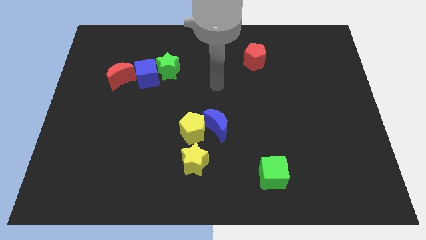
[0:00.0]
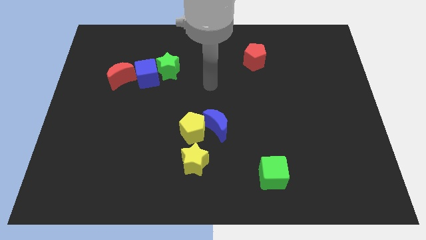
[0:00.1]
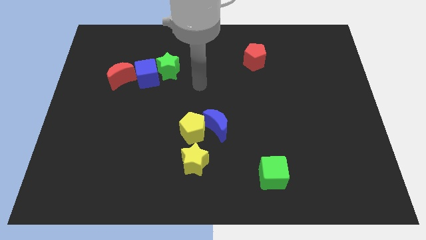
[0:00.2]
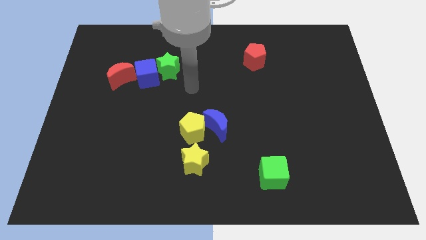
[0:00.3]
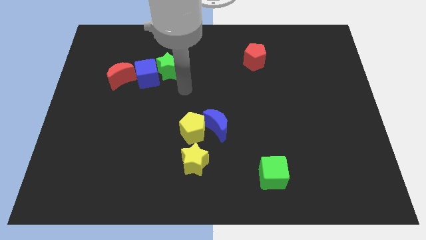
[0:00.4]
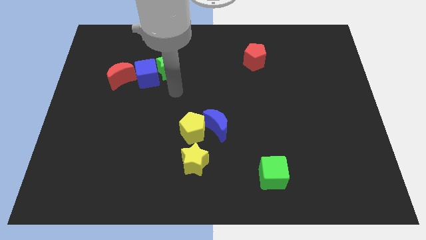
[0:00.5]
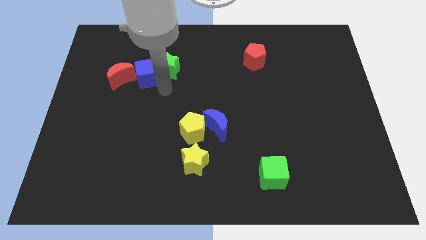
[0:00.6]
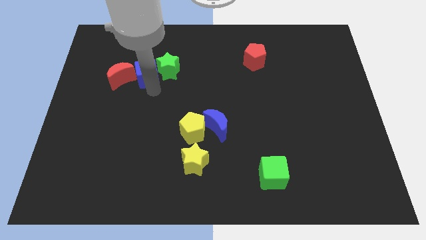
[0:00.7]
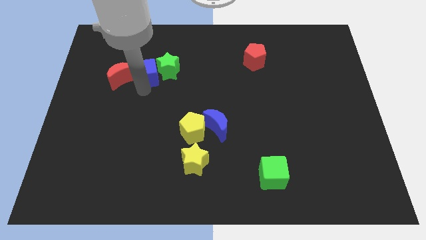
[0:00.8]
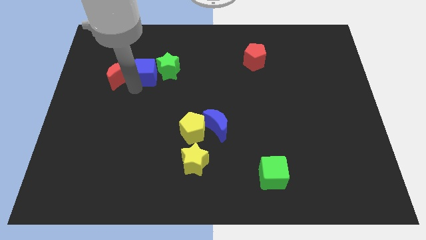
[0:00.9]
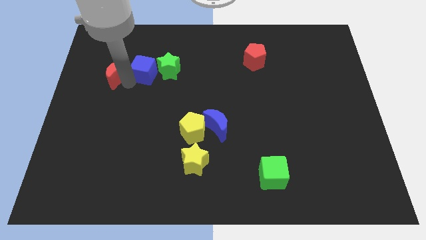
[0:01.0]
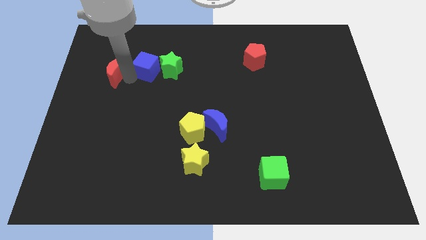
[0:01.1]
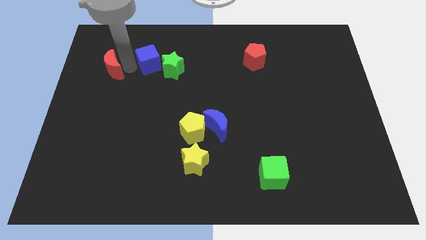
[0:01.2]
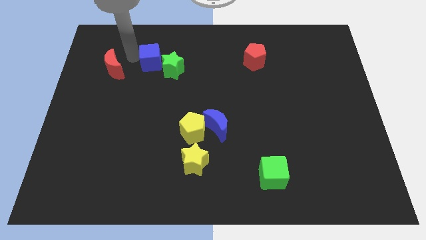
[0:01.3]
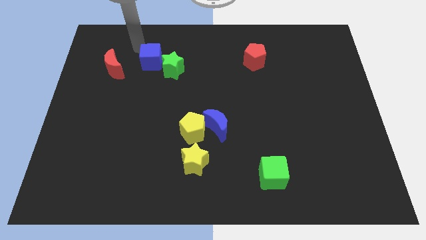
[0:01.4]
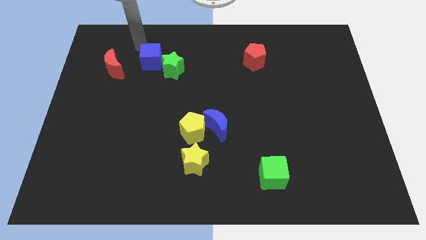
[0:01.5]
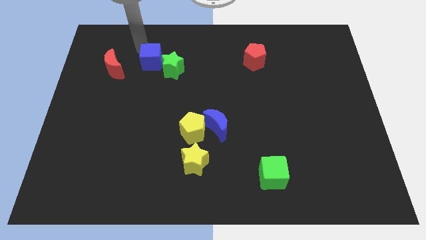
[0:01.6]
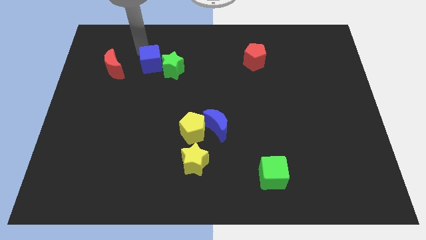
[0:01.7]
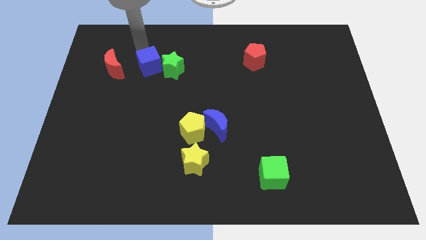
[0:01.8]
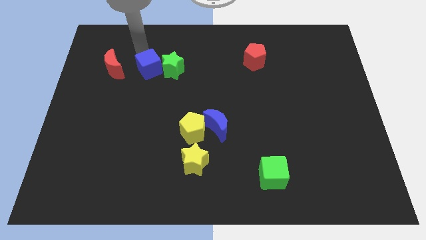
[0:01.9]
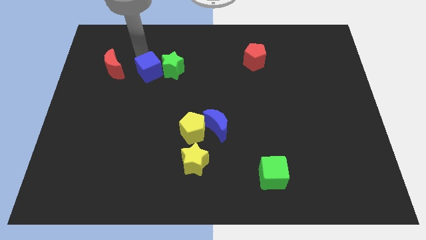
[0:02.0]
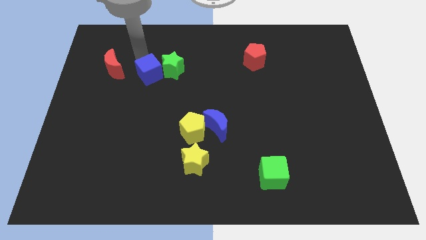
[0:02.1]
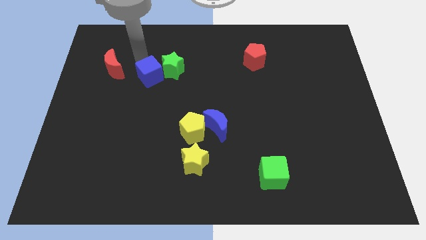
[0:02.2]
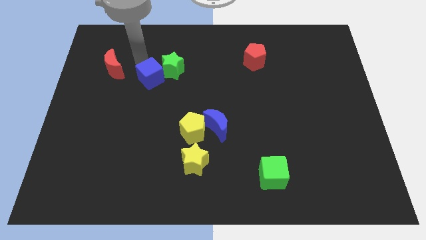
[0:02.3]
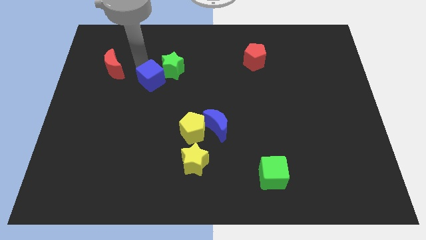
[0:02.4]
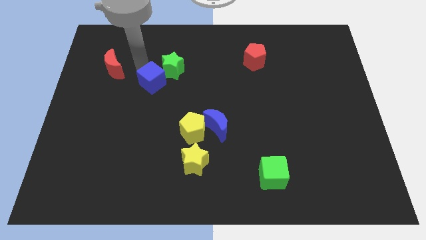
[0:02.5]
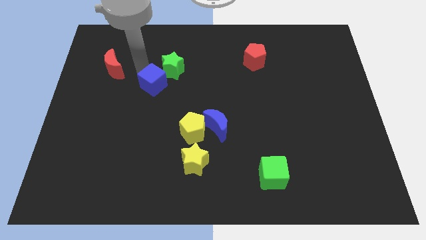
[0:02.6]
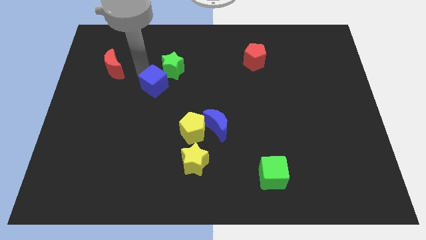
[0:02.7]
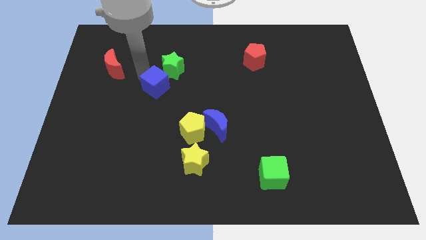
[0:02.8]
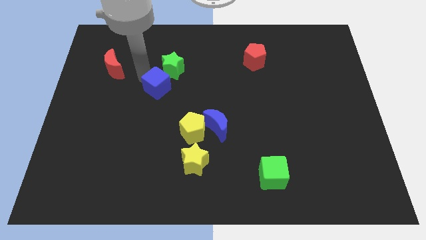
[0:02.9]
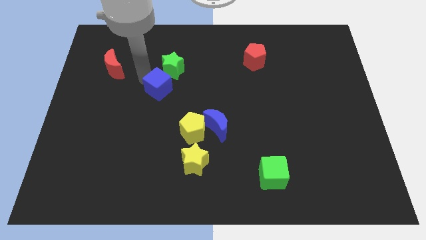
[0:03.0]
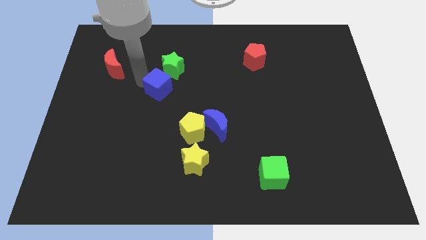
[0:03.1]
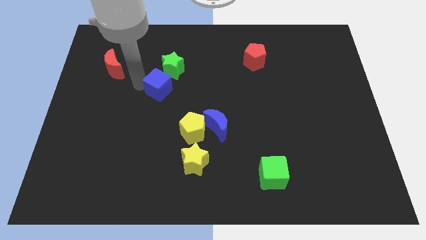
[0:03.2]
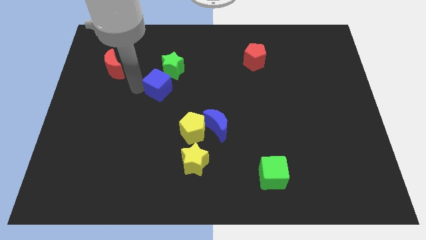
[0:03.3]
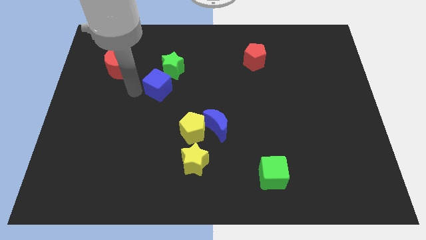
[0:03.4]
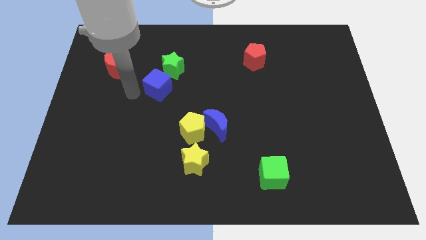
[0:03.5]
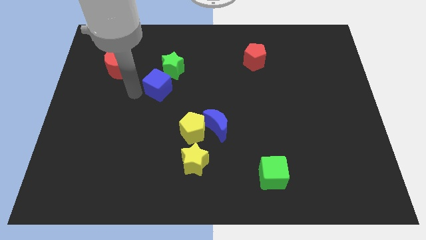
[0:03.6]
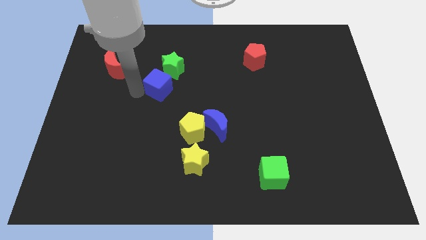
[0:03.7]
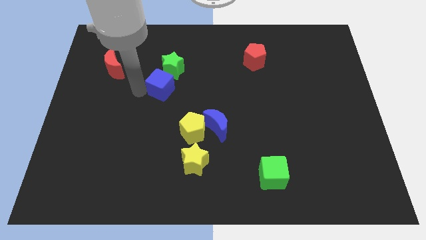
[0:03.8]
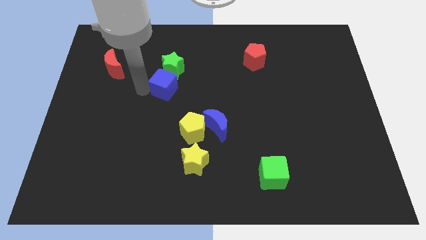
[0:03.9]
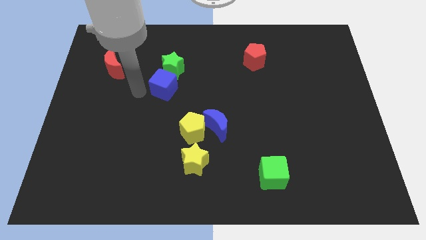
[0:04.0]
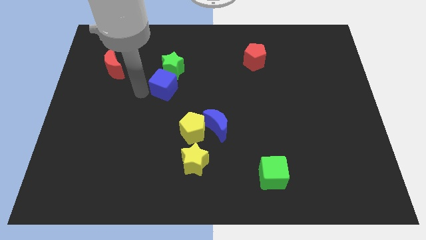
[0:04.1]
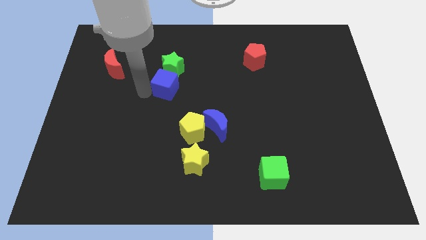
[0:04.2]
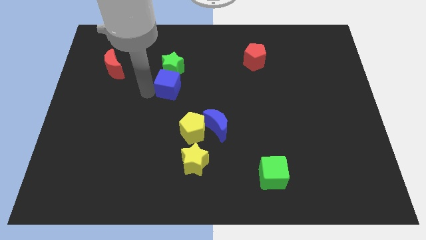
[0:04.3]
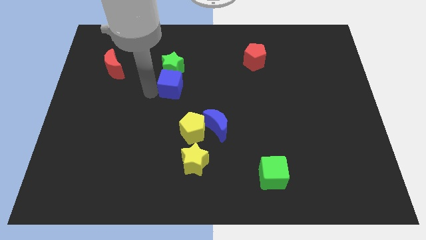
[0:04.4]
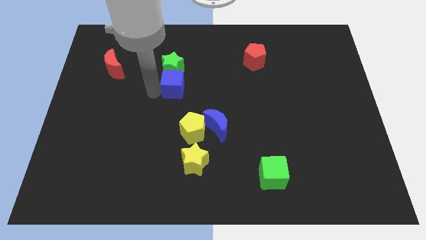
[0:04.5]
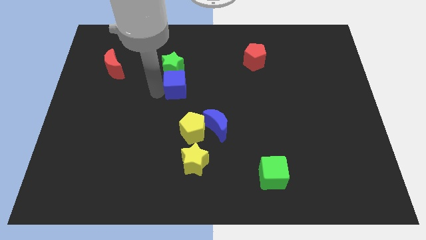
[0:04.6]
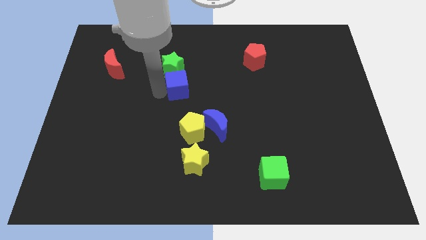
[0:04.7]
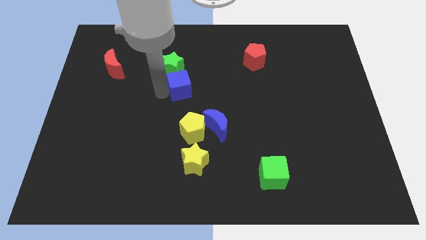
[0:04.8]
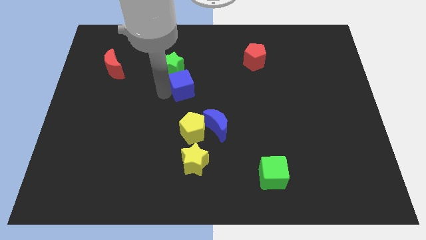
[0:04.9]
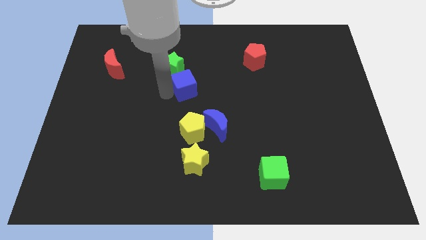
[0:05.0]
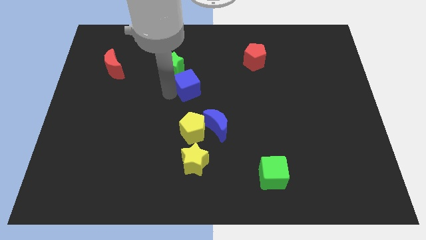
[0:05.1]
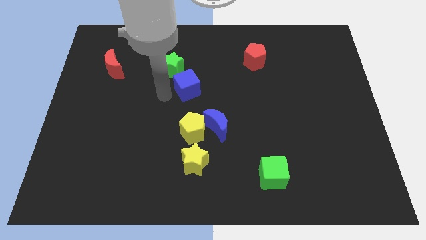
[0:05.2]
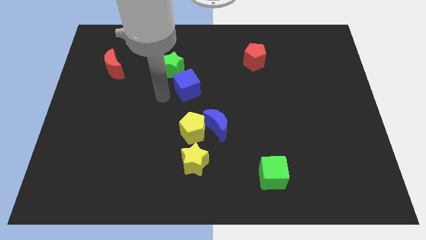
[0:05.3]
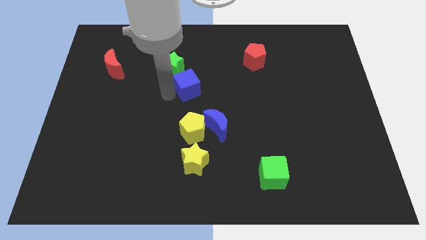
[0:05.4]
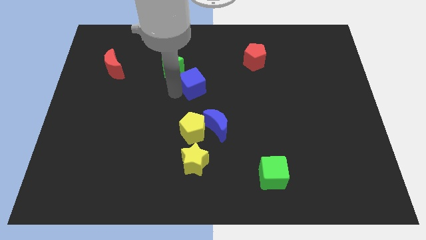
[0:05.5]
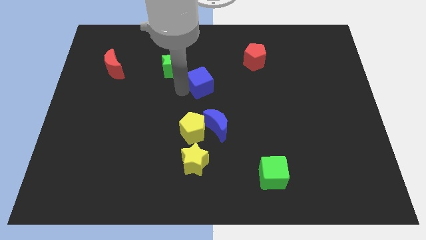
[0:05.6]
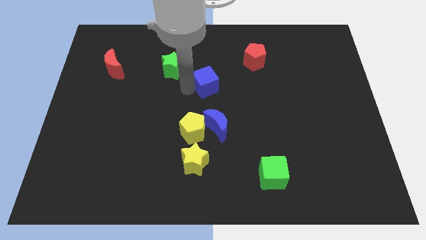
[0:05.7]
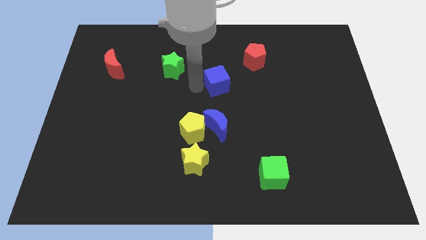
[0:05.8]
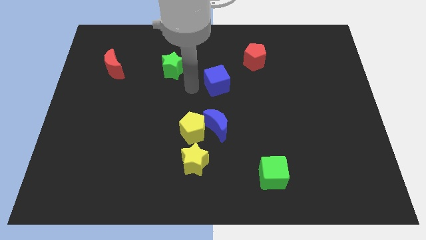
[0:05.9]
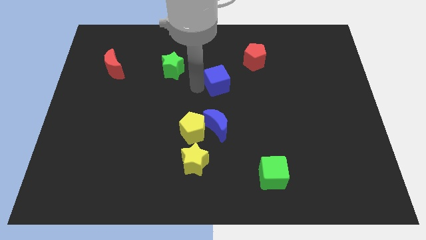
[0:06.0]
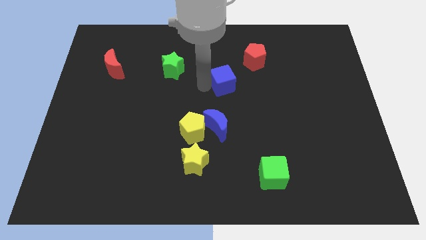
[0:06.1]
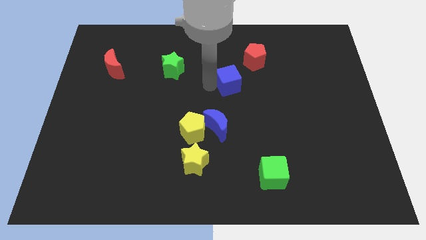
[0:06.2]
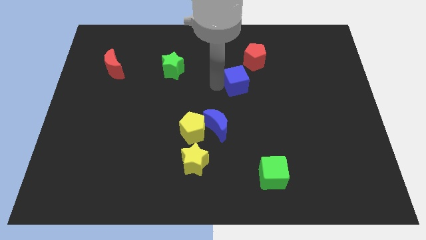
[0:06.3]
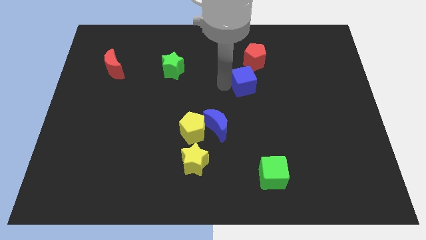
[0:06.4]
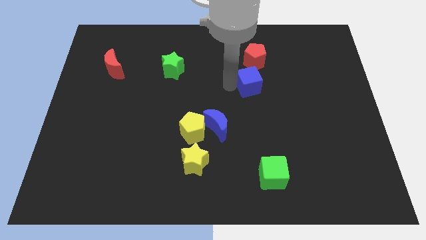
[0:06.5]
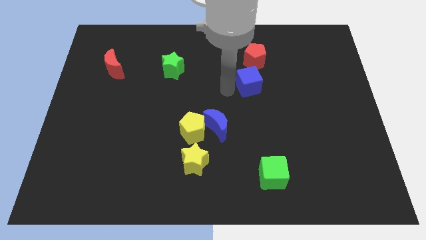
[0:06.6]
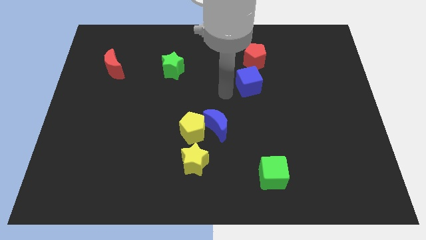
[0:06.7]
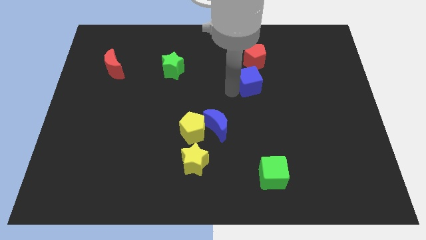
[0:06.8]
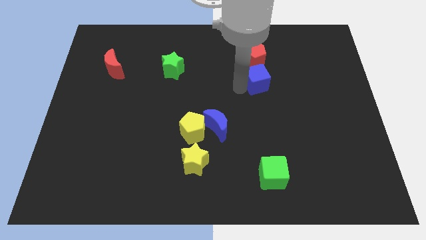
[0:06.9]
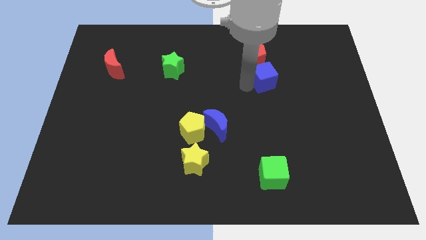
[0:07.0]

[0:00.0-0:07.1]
put the blue cube to the bottom right of the red pentagon
